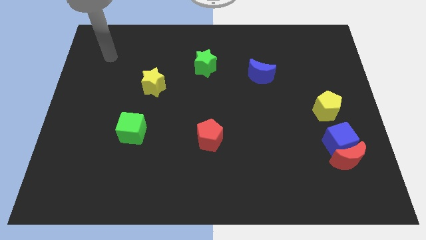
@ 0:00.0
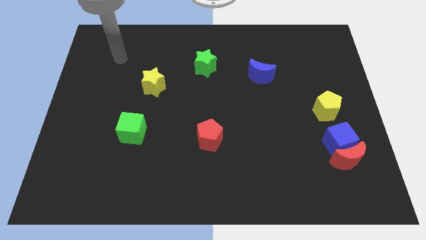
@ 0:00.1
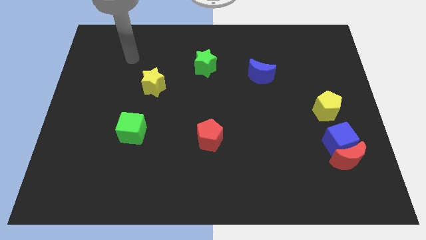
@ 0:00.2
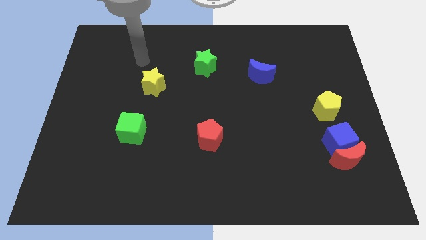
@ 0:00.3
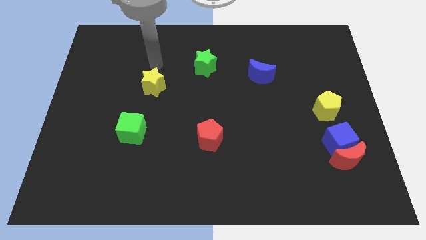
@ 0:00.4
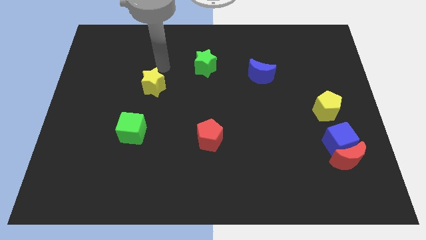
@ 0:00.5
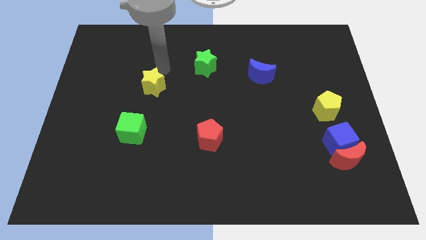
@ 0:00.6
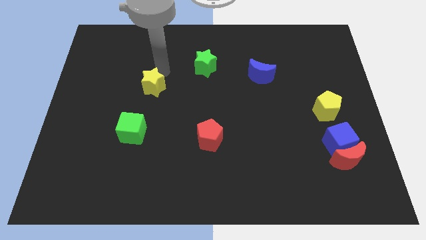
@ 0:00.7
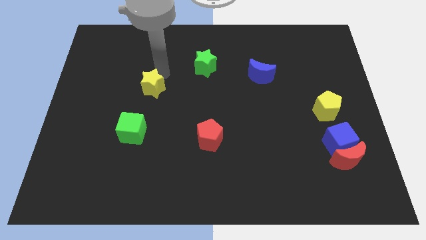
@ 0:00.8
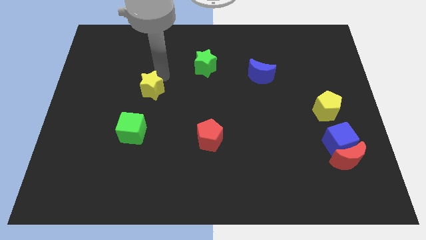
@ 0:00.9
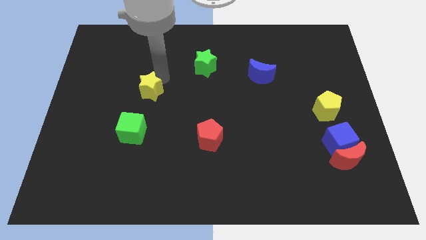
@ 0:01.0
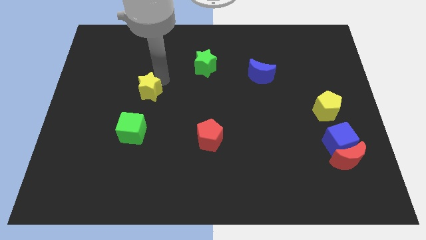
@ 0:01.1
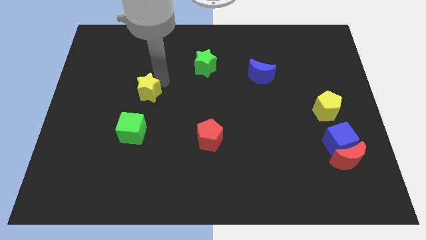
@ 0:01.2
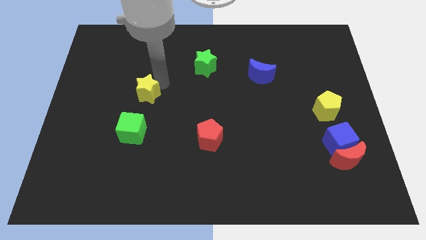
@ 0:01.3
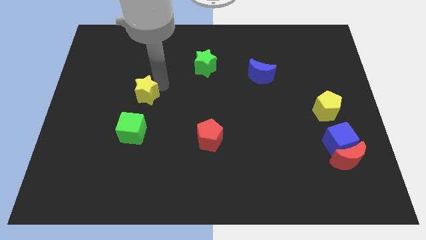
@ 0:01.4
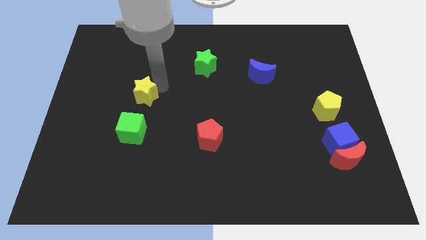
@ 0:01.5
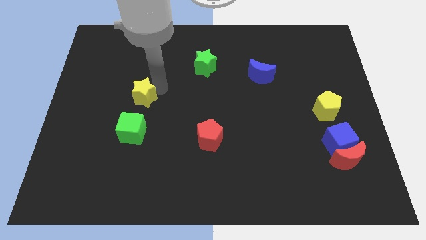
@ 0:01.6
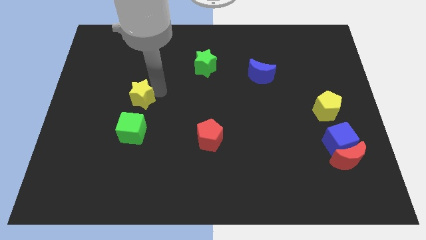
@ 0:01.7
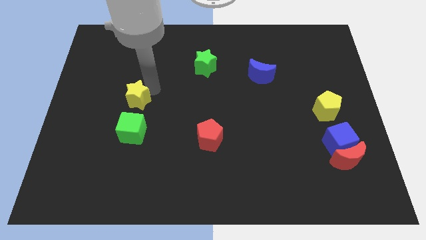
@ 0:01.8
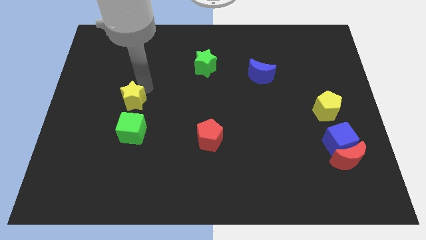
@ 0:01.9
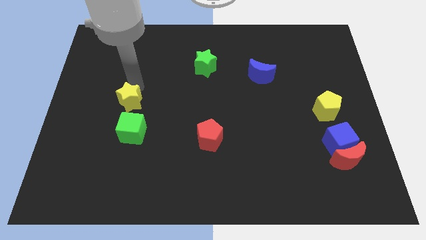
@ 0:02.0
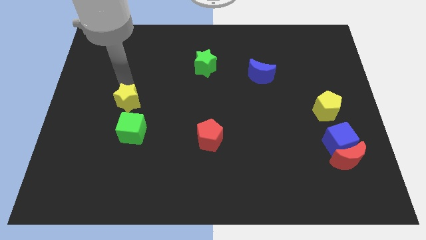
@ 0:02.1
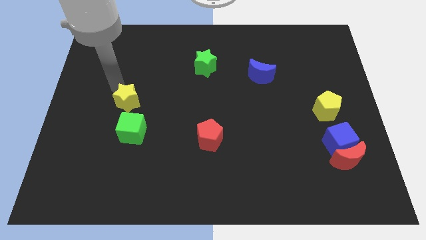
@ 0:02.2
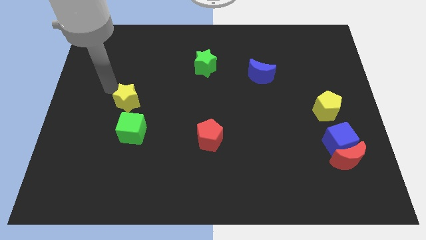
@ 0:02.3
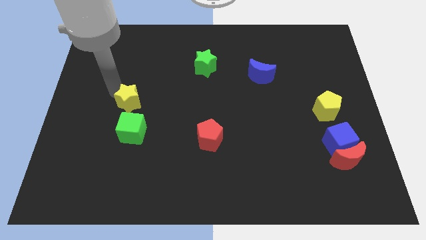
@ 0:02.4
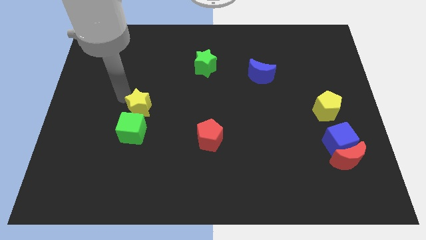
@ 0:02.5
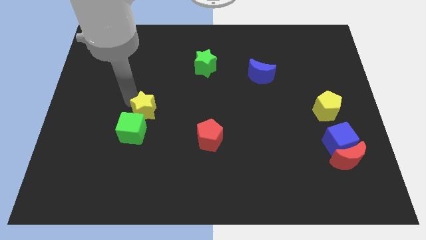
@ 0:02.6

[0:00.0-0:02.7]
slightly move the yellow star downwards

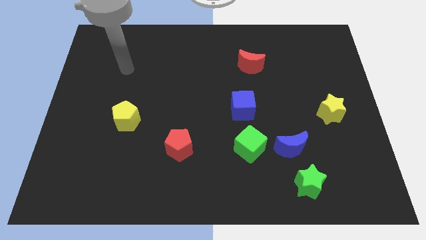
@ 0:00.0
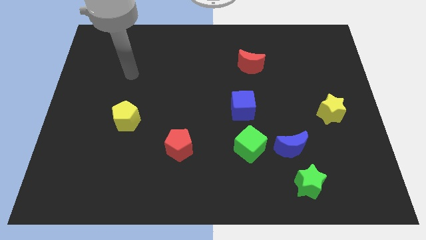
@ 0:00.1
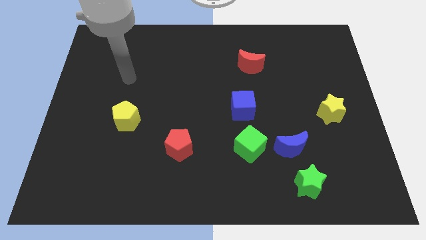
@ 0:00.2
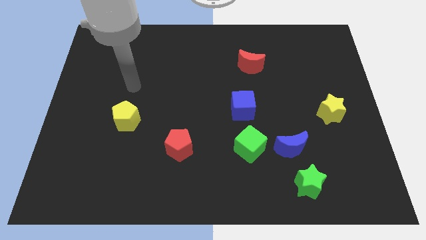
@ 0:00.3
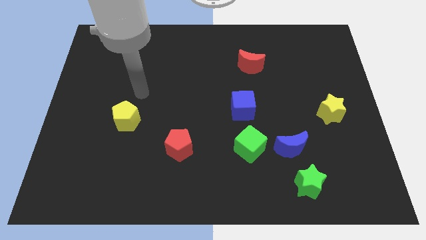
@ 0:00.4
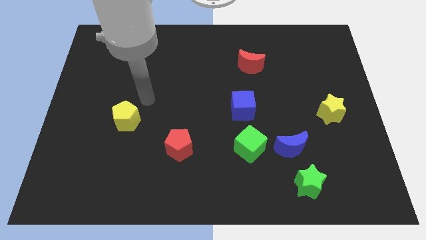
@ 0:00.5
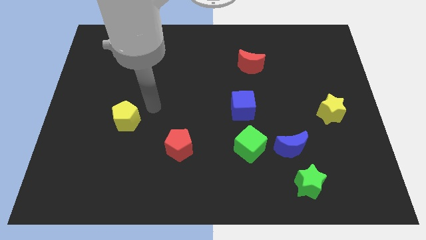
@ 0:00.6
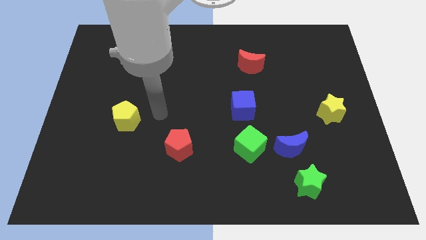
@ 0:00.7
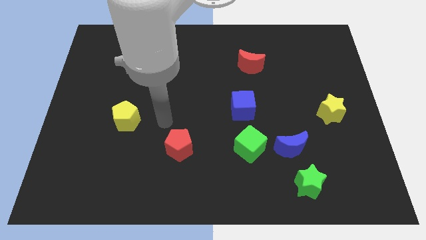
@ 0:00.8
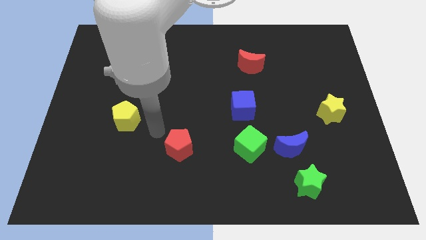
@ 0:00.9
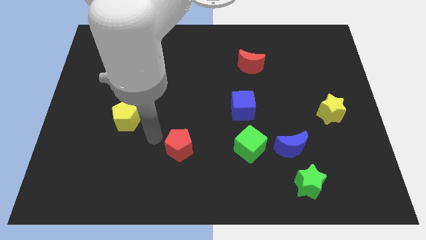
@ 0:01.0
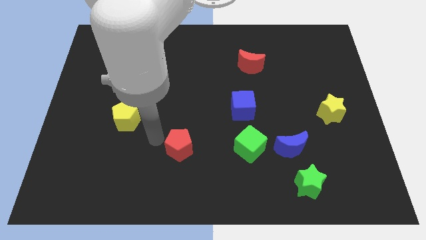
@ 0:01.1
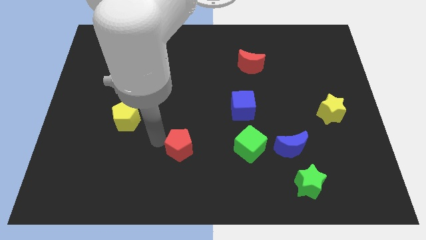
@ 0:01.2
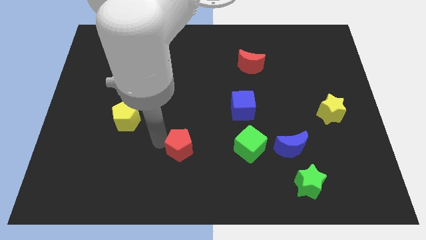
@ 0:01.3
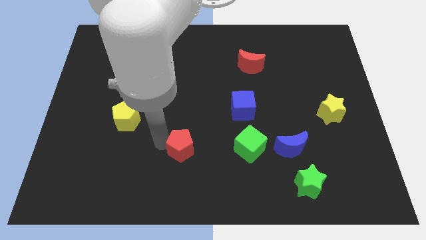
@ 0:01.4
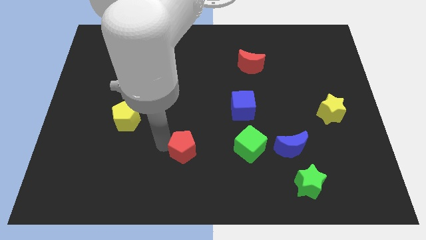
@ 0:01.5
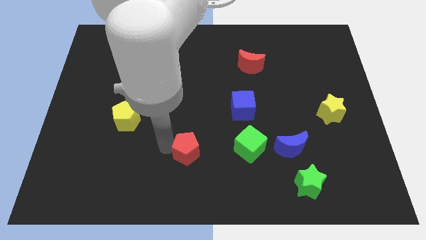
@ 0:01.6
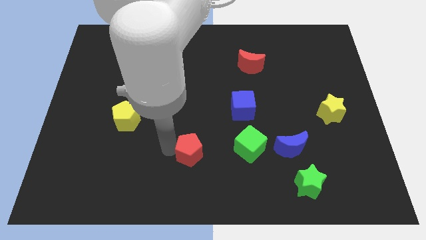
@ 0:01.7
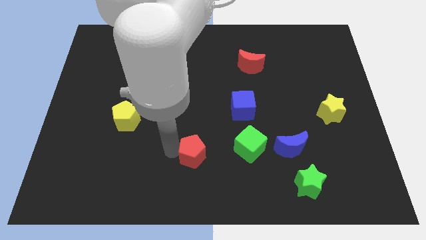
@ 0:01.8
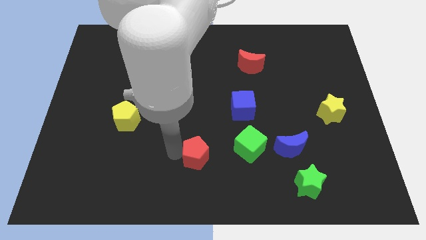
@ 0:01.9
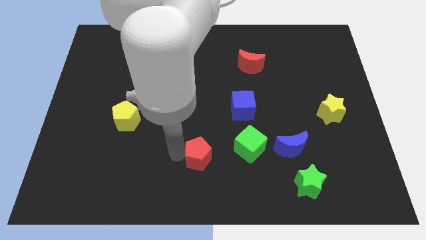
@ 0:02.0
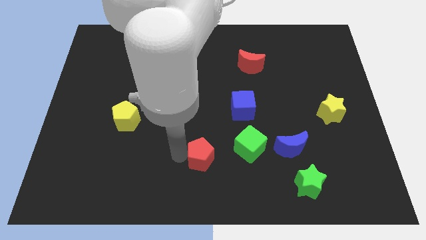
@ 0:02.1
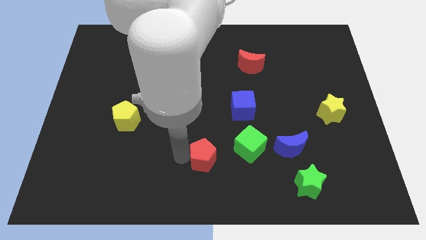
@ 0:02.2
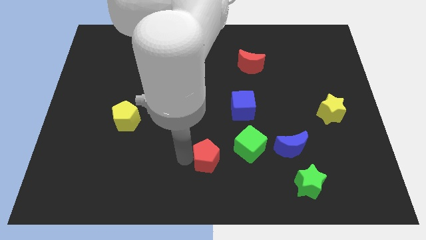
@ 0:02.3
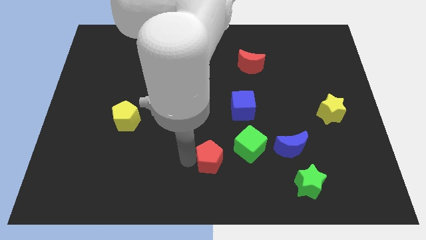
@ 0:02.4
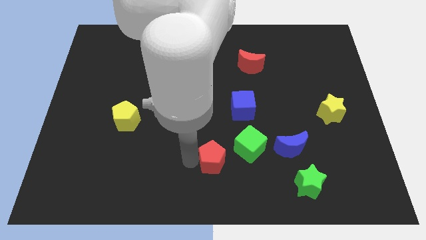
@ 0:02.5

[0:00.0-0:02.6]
slide the red pentagon a little right

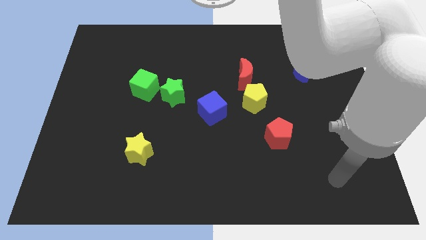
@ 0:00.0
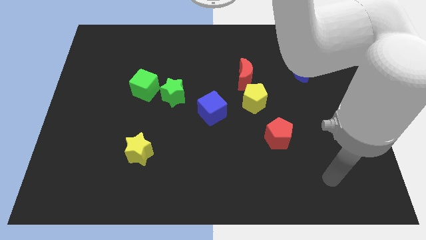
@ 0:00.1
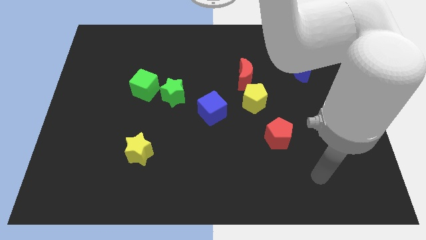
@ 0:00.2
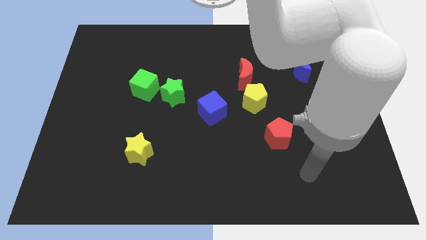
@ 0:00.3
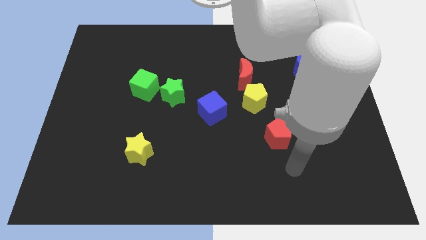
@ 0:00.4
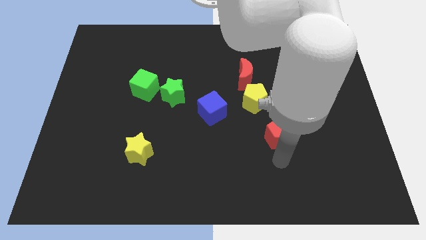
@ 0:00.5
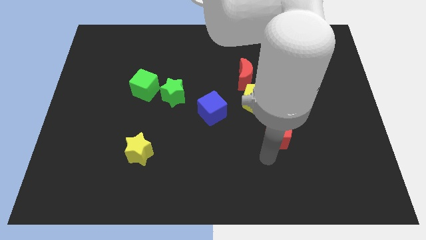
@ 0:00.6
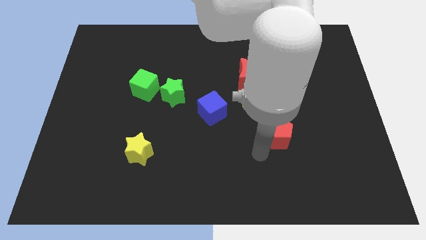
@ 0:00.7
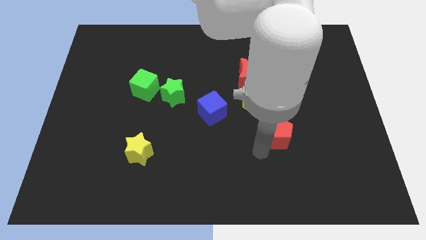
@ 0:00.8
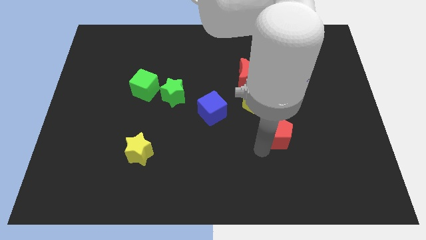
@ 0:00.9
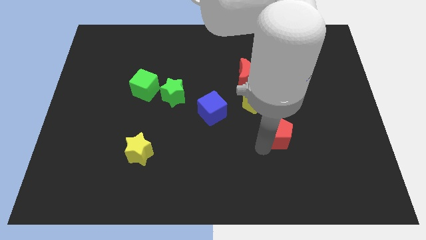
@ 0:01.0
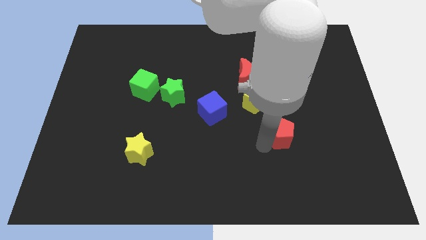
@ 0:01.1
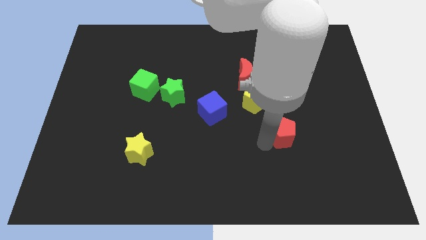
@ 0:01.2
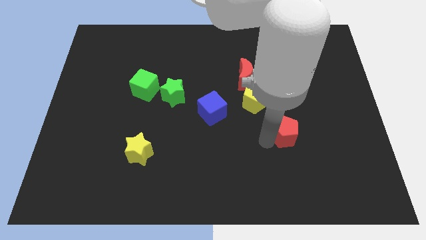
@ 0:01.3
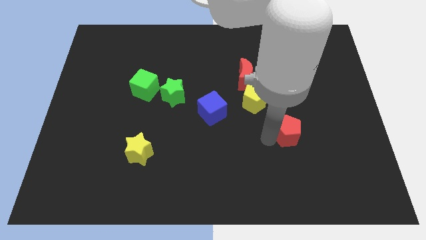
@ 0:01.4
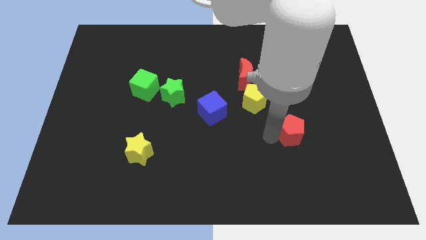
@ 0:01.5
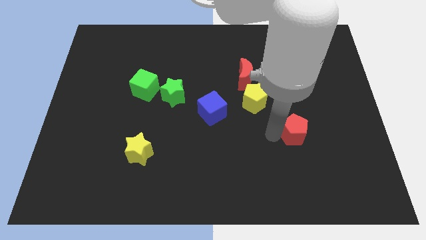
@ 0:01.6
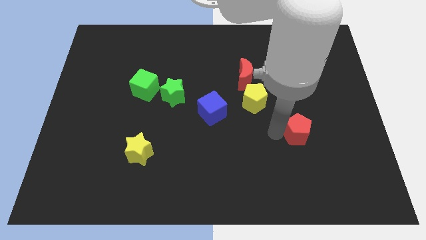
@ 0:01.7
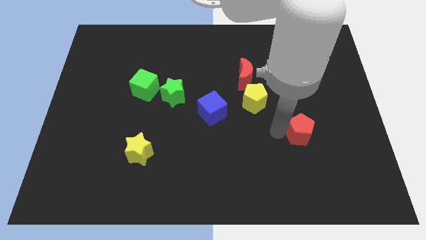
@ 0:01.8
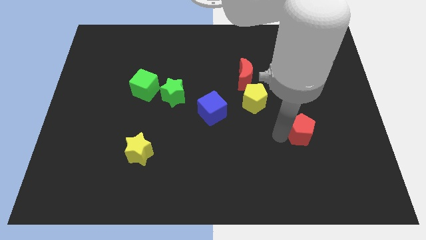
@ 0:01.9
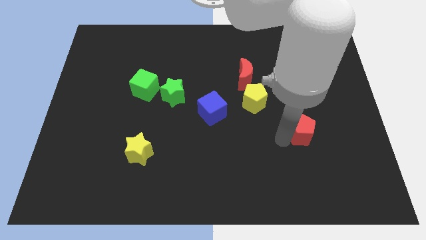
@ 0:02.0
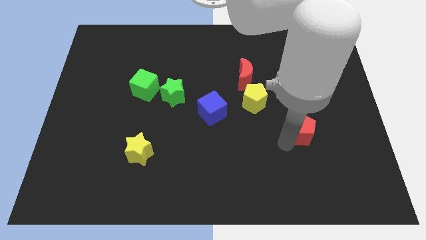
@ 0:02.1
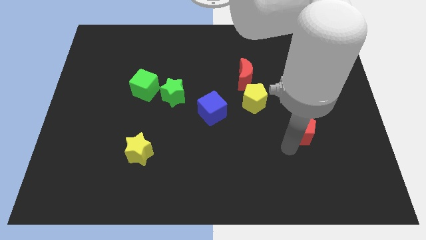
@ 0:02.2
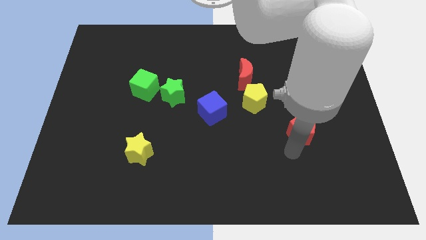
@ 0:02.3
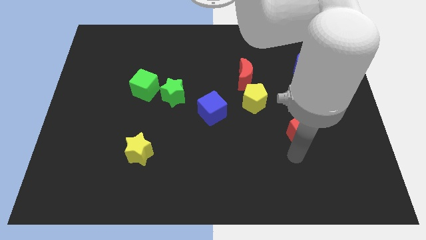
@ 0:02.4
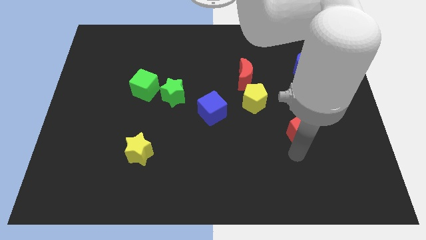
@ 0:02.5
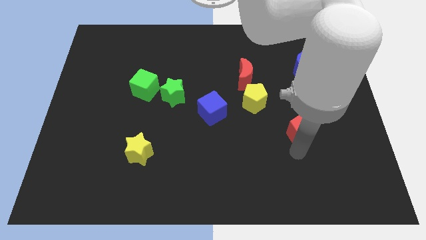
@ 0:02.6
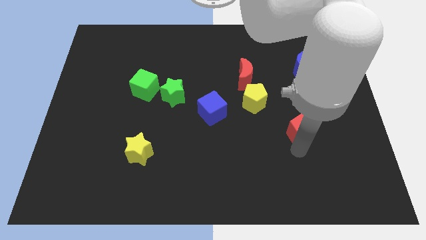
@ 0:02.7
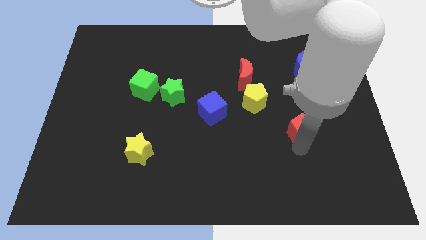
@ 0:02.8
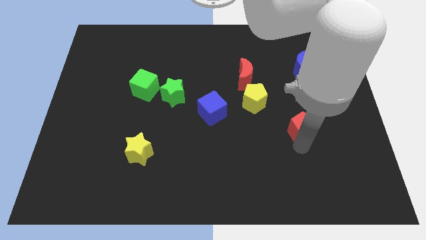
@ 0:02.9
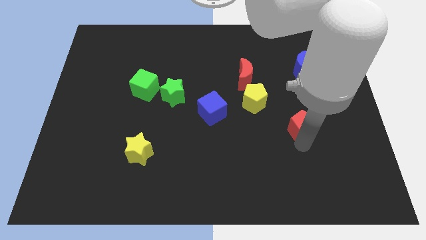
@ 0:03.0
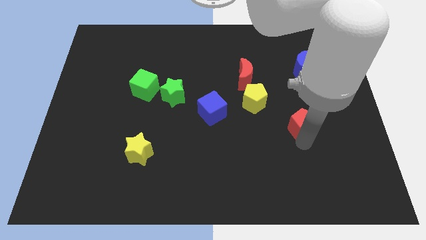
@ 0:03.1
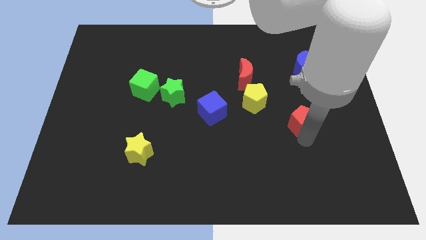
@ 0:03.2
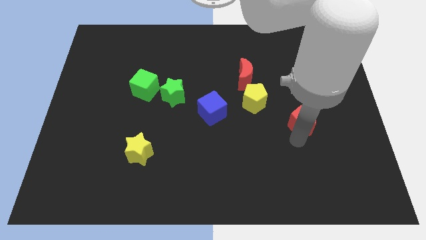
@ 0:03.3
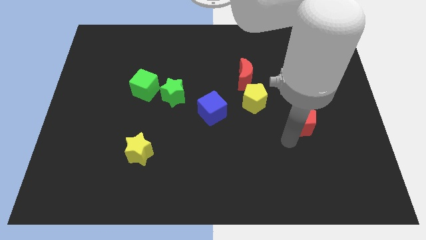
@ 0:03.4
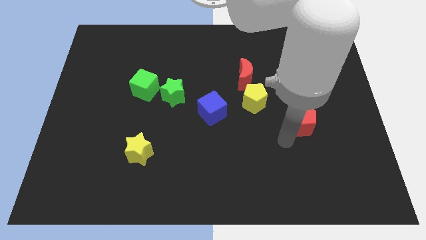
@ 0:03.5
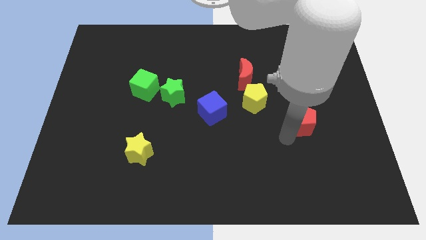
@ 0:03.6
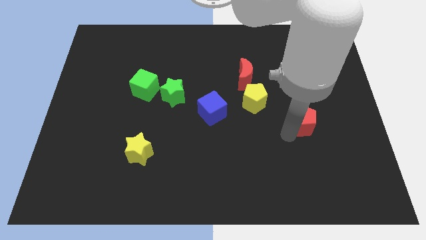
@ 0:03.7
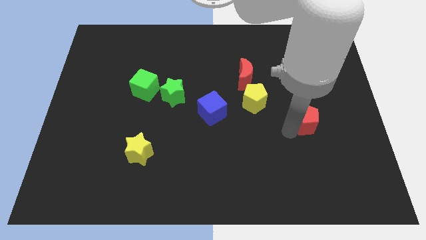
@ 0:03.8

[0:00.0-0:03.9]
slide the red pentagon upwards and then right a little bit
